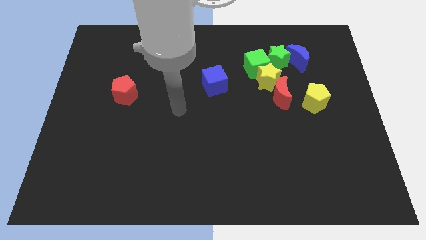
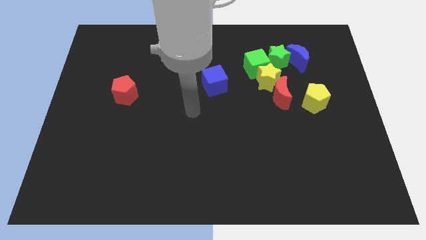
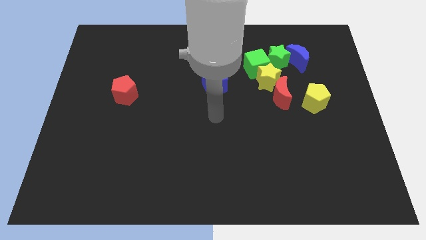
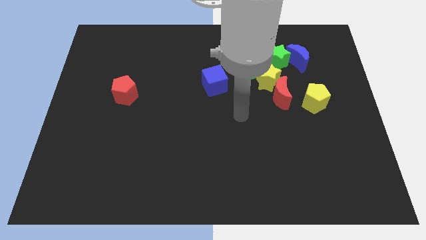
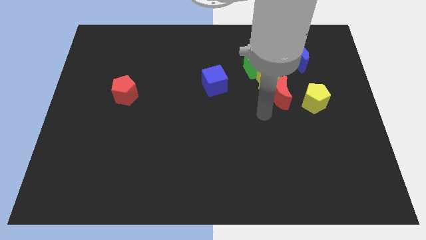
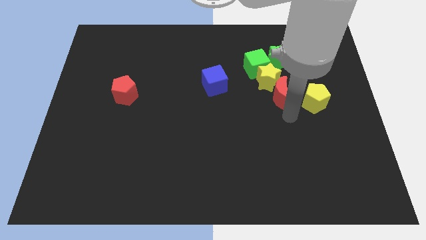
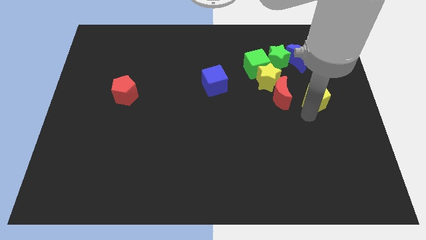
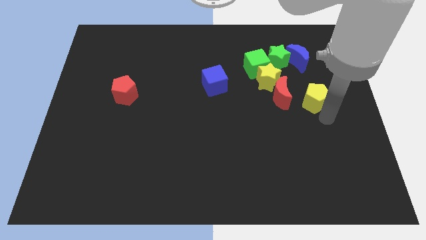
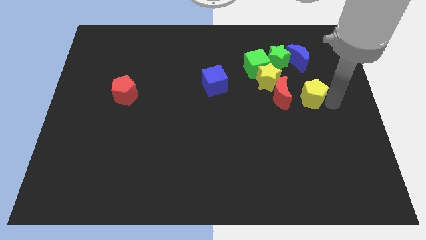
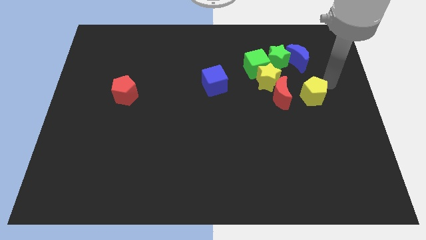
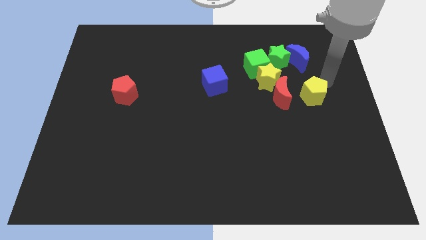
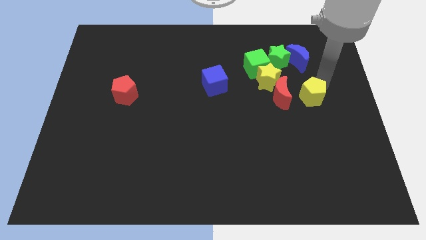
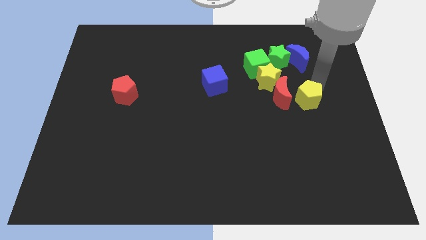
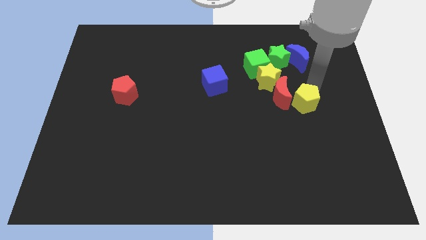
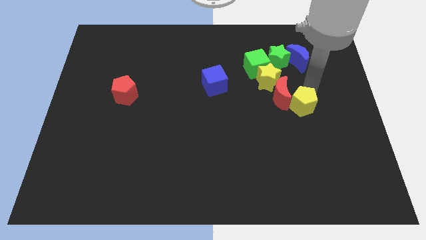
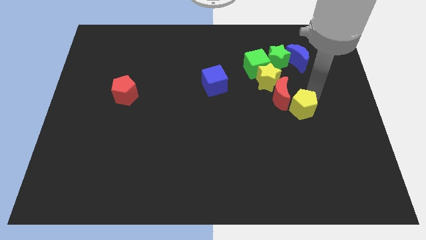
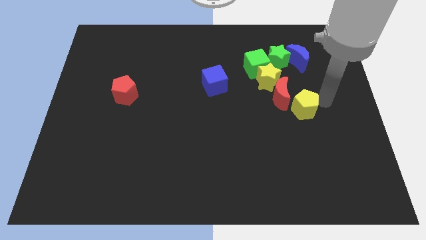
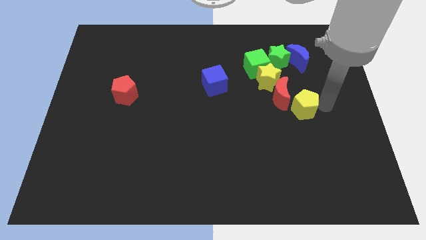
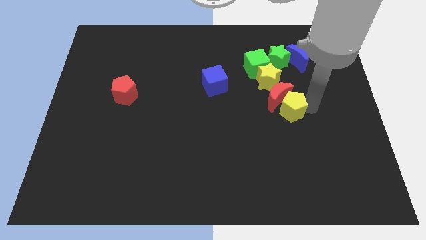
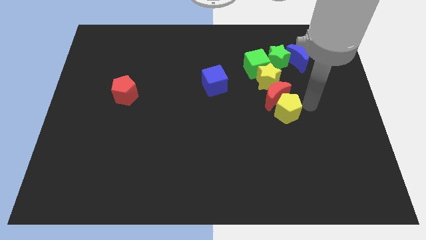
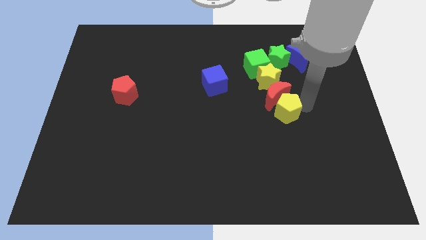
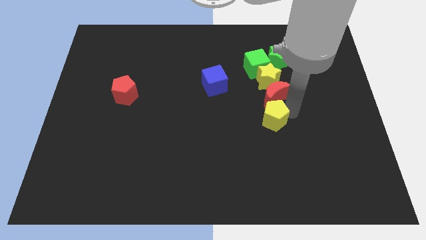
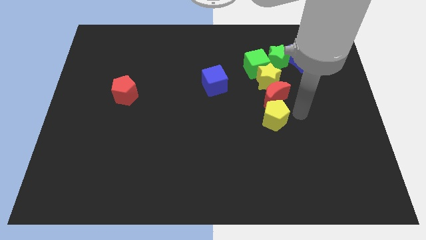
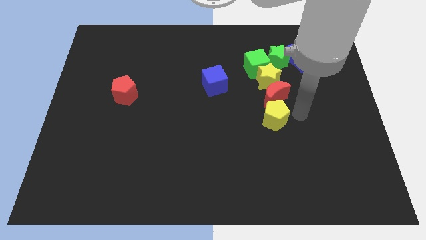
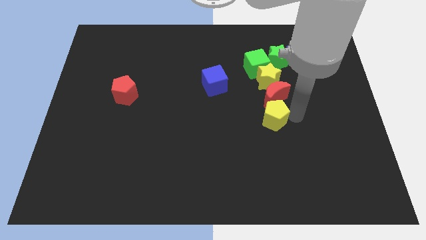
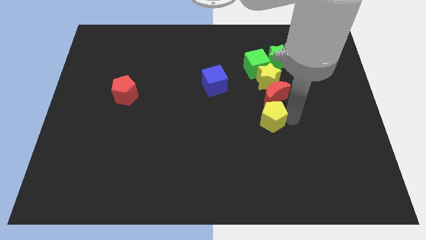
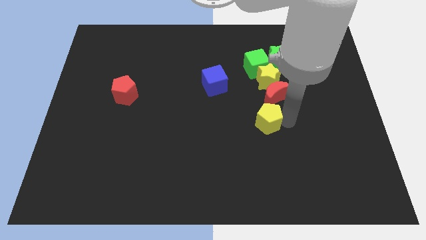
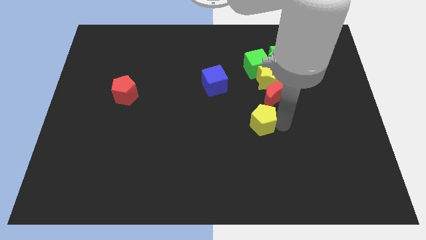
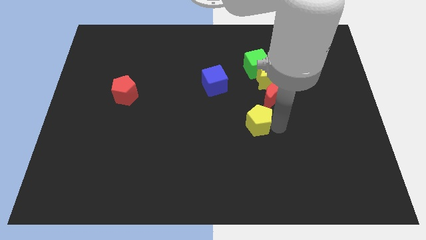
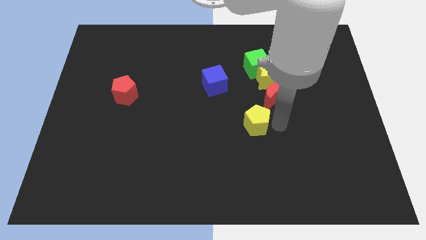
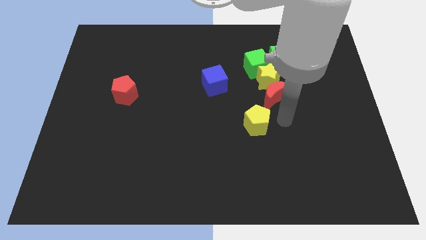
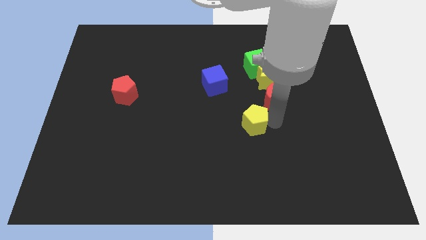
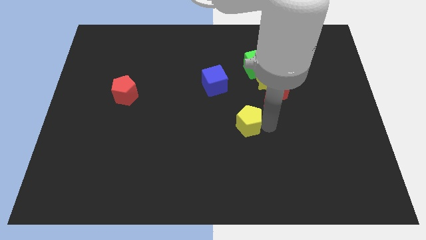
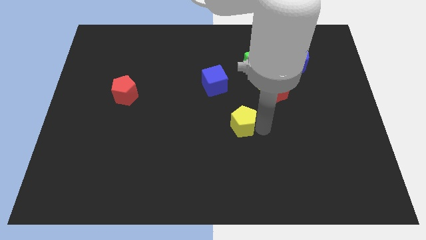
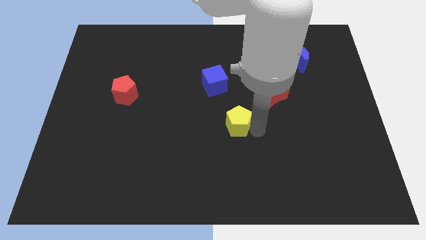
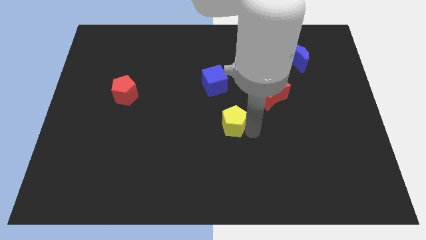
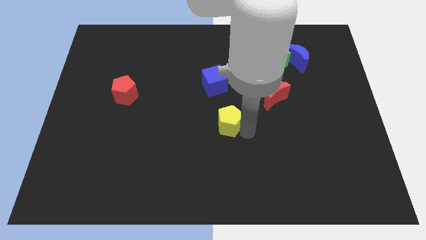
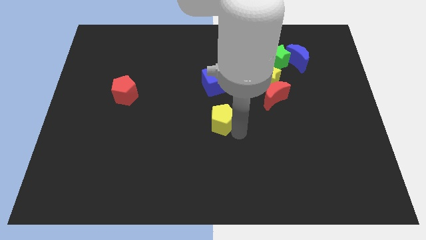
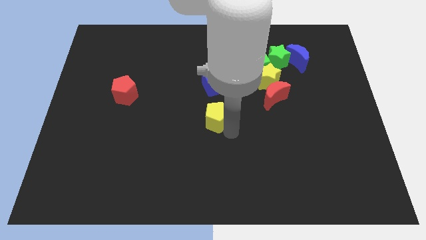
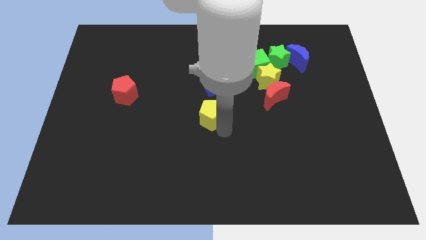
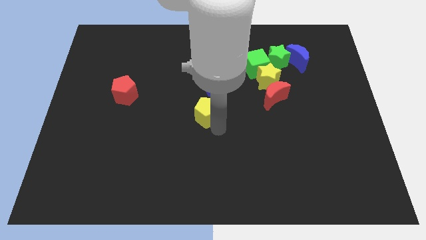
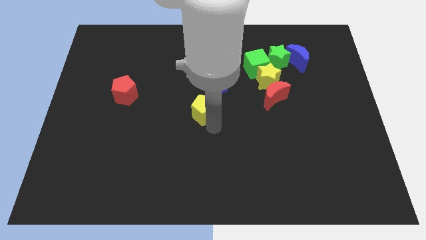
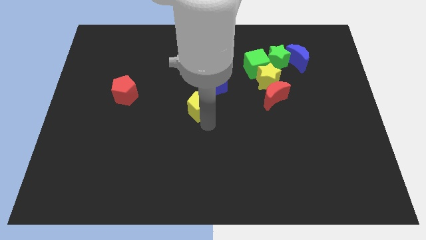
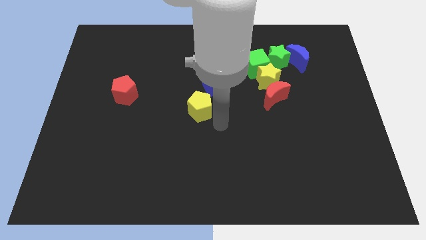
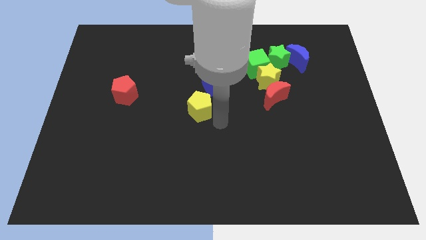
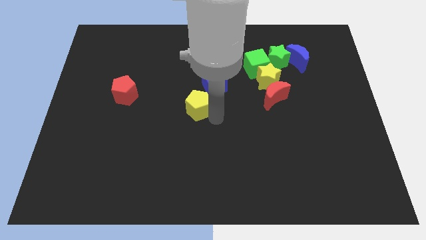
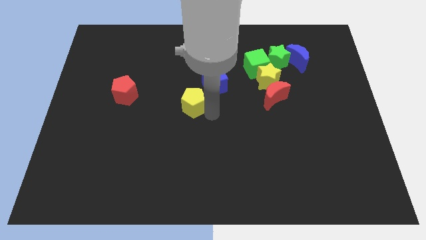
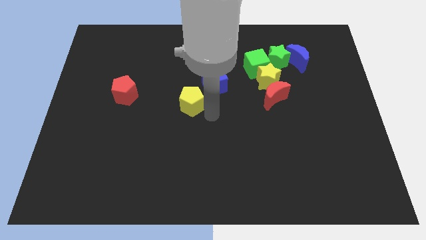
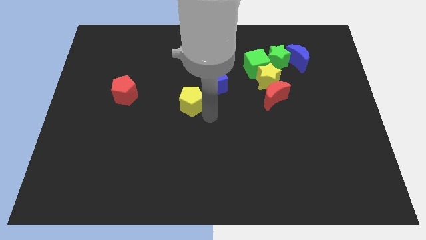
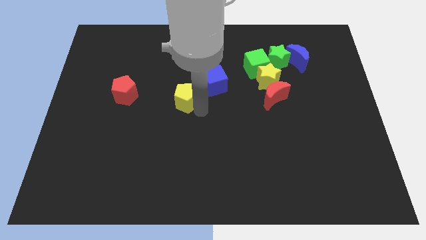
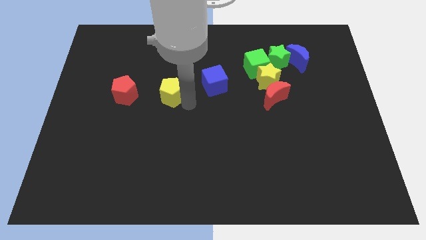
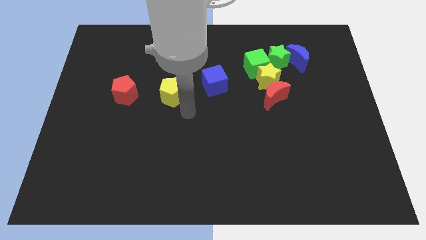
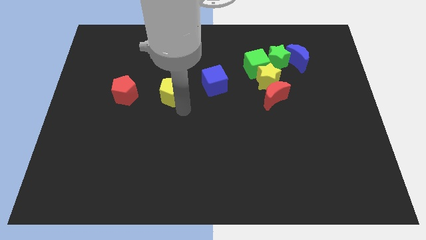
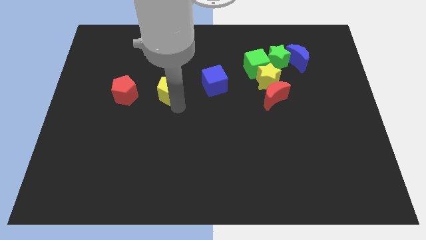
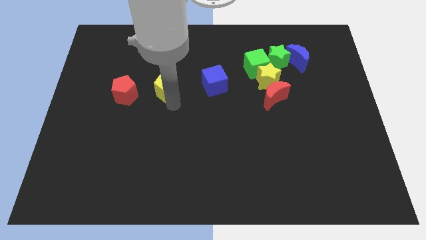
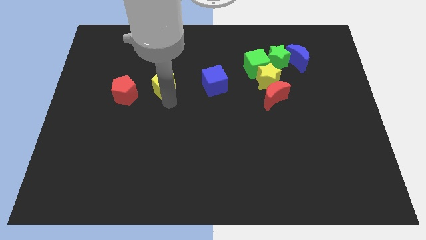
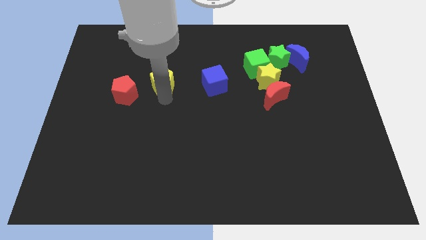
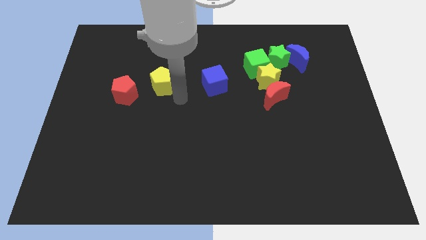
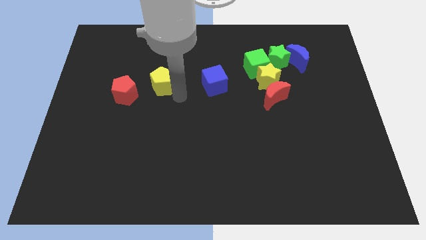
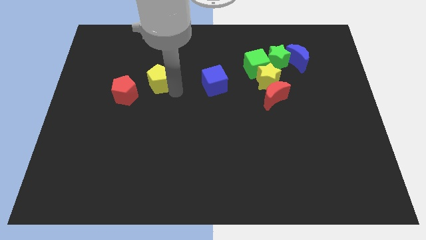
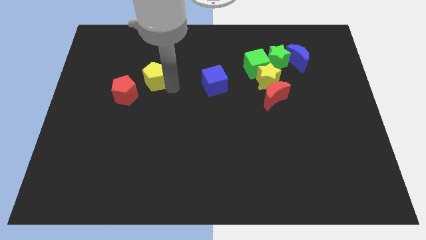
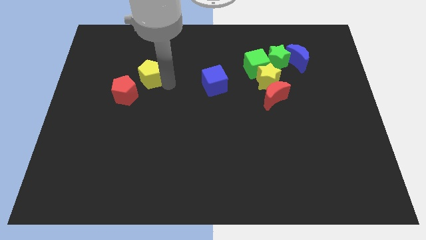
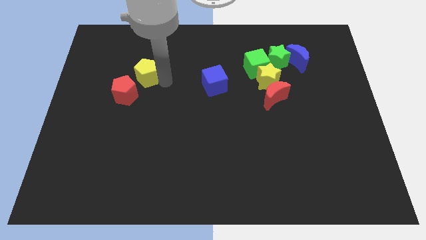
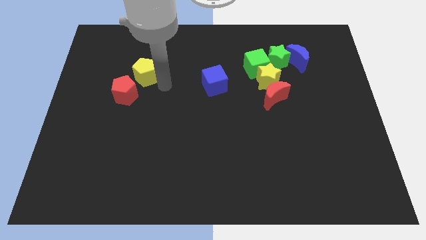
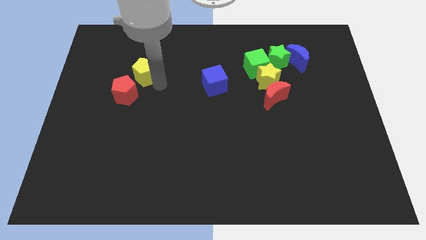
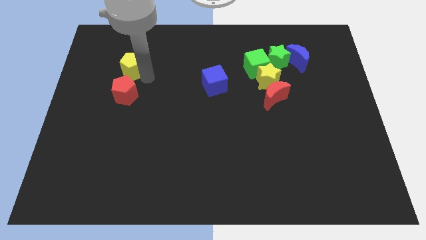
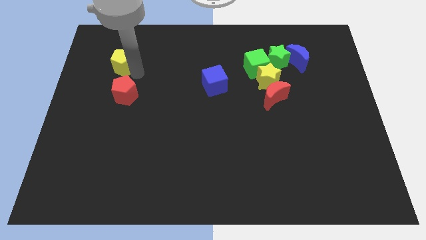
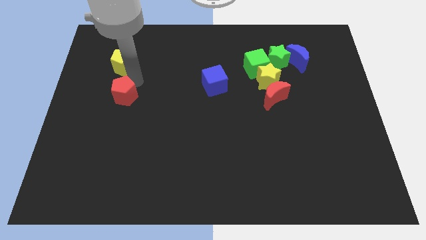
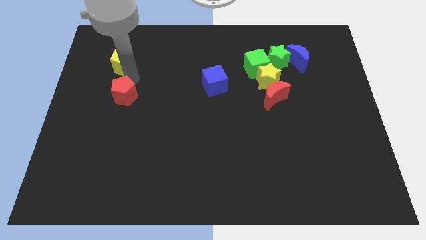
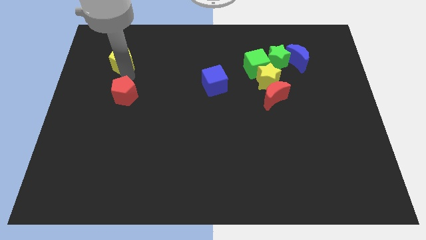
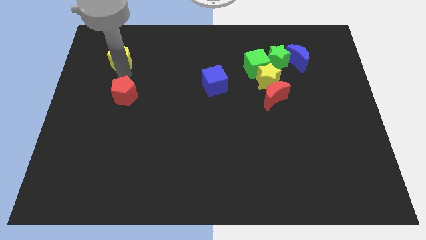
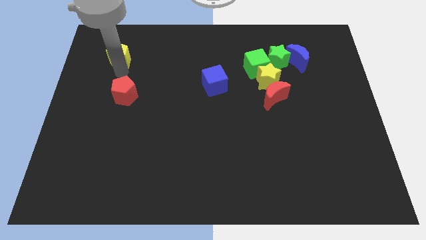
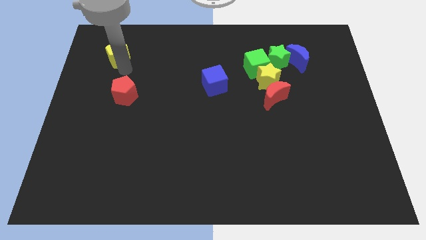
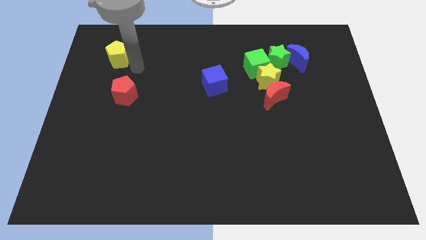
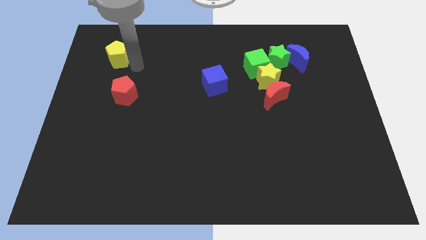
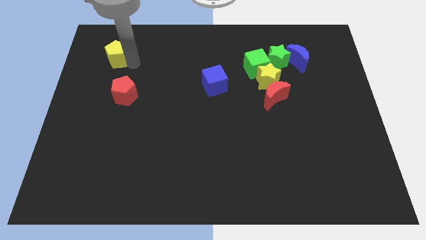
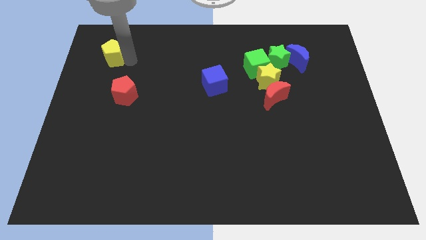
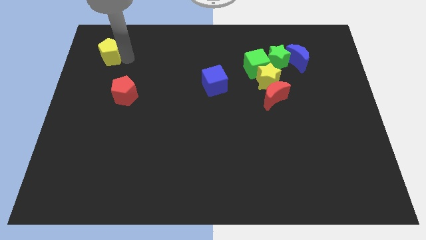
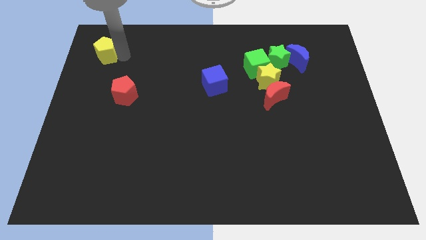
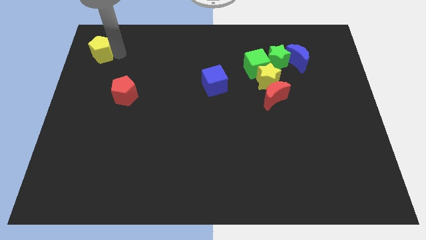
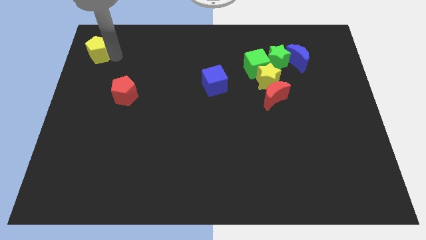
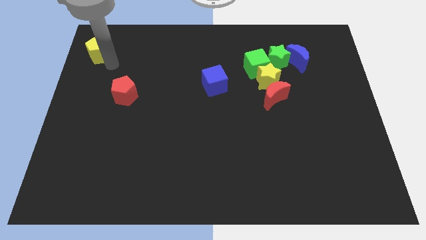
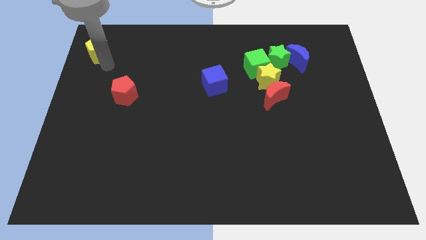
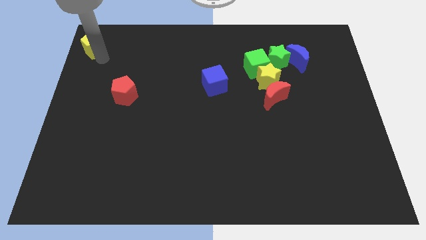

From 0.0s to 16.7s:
slide the yellow pentagon to the top left corner
